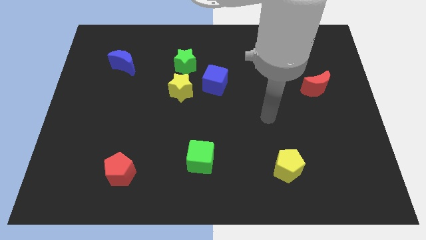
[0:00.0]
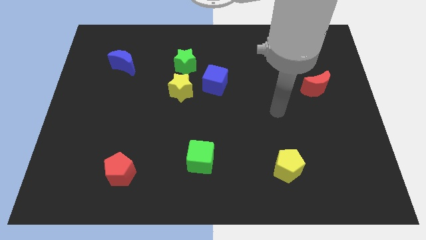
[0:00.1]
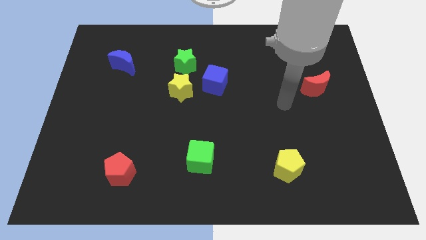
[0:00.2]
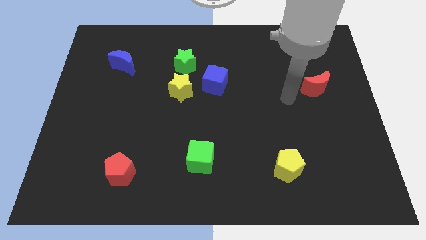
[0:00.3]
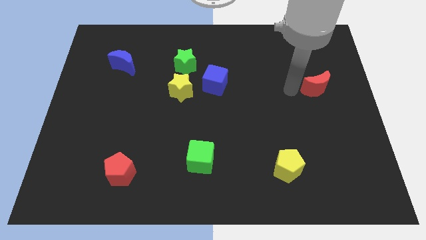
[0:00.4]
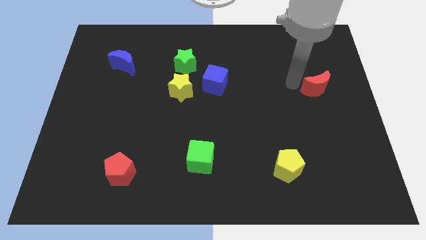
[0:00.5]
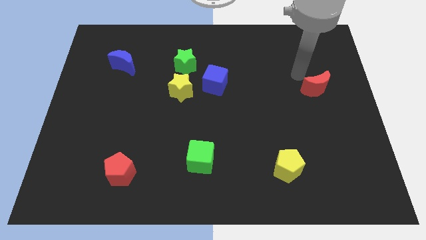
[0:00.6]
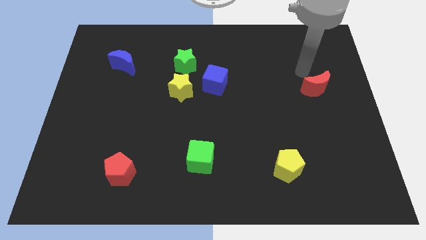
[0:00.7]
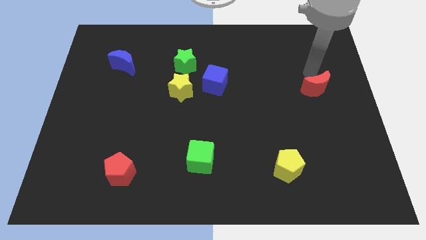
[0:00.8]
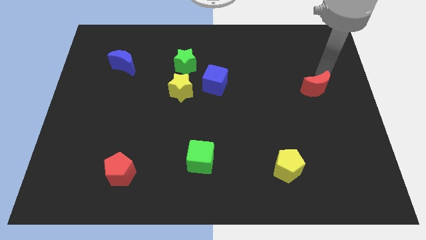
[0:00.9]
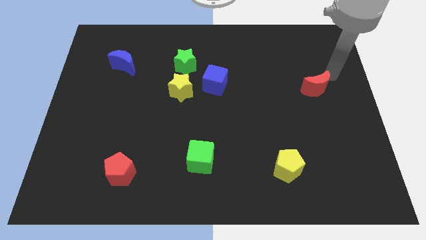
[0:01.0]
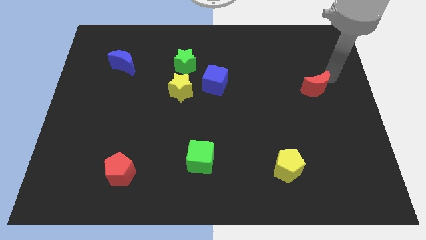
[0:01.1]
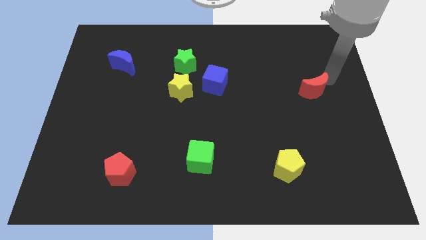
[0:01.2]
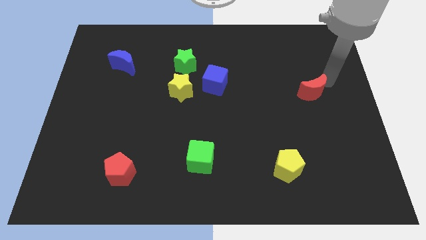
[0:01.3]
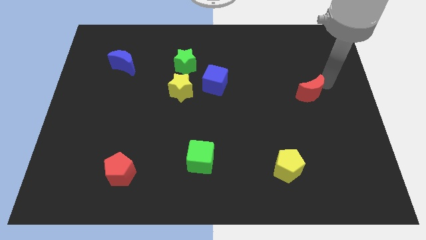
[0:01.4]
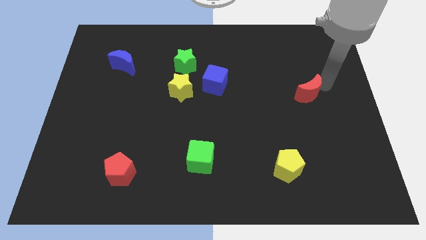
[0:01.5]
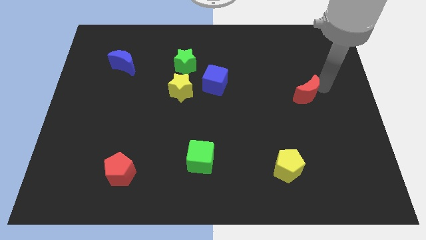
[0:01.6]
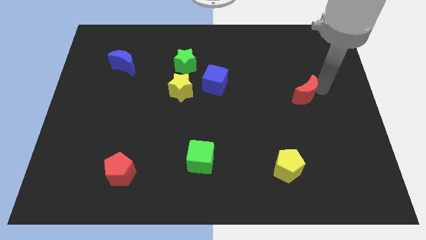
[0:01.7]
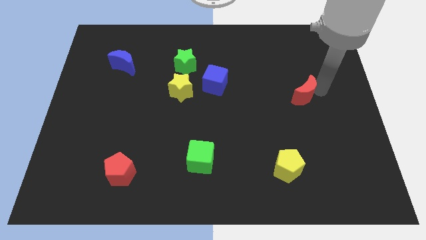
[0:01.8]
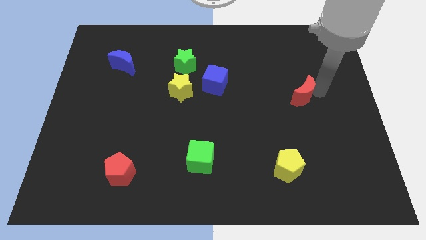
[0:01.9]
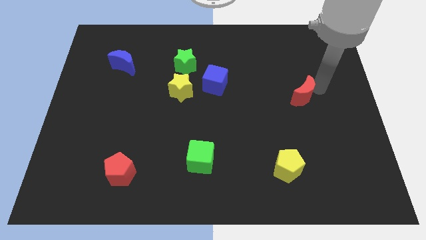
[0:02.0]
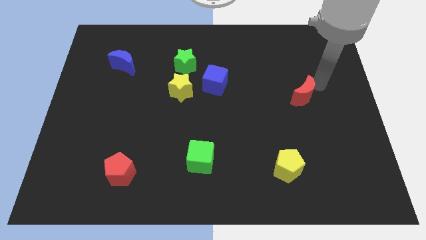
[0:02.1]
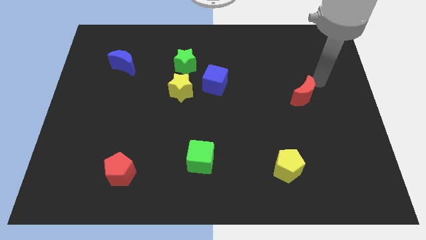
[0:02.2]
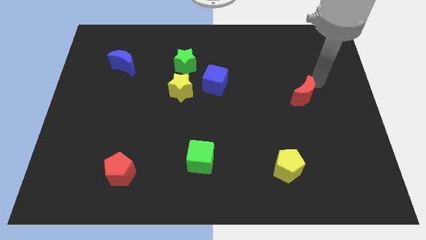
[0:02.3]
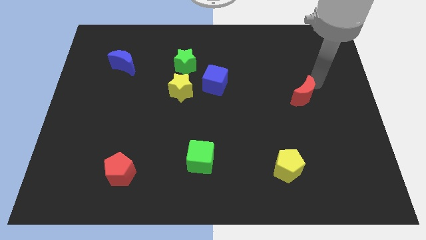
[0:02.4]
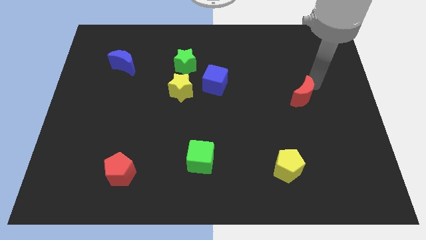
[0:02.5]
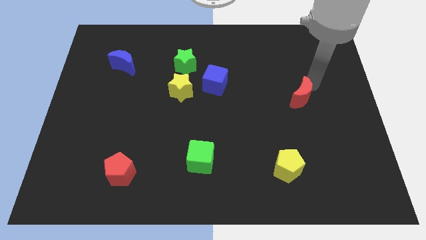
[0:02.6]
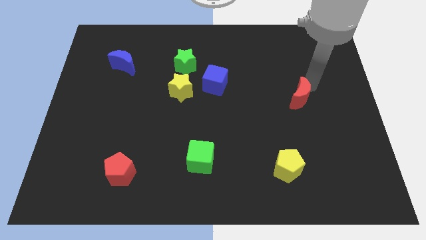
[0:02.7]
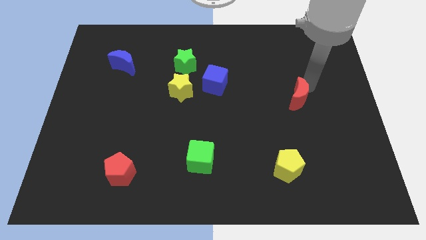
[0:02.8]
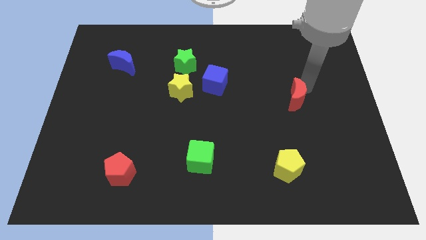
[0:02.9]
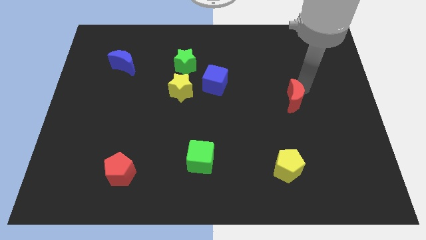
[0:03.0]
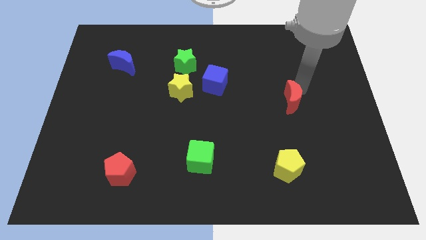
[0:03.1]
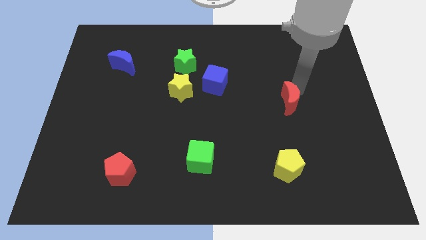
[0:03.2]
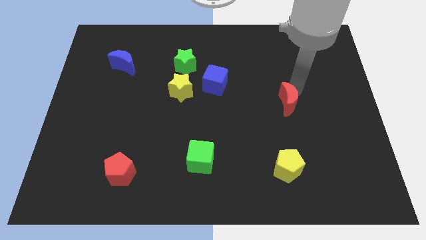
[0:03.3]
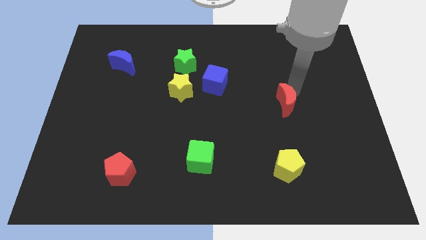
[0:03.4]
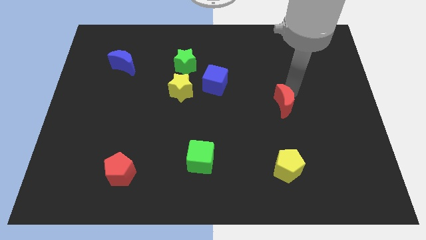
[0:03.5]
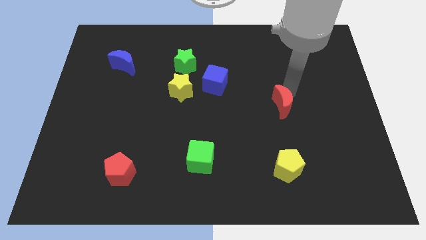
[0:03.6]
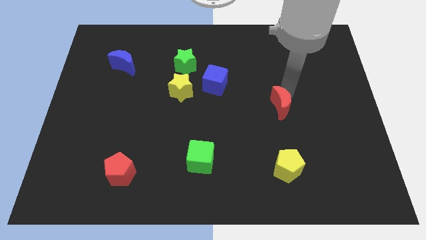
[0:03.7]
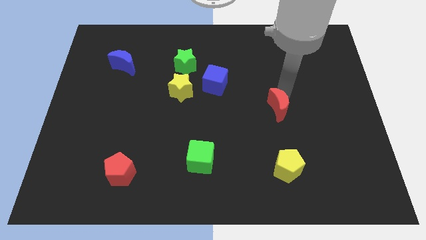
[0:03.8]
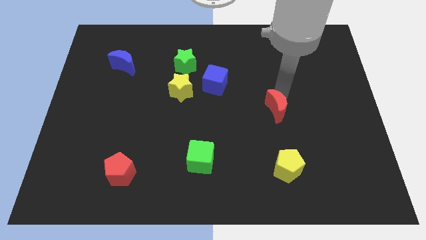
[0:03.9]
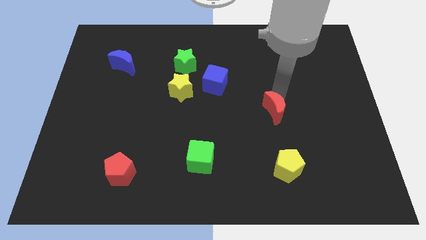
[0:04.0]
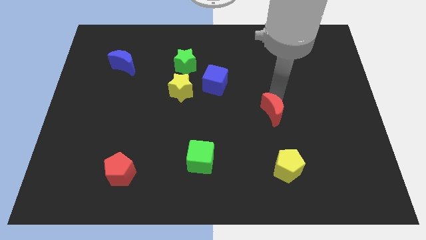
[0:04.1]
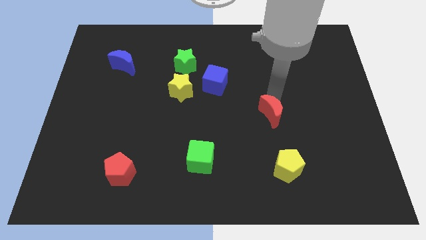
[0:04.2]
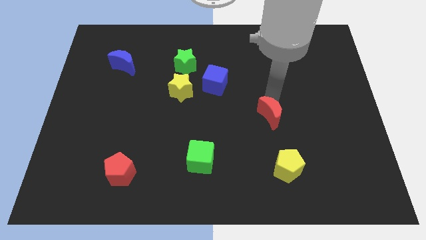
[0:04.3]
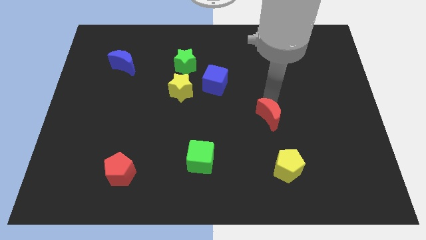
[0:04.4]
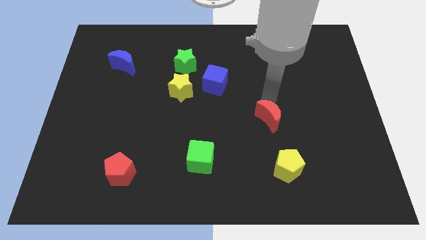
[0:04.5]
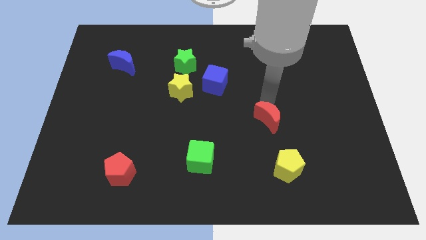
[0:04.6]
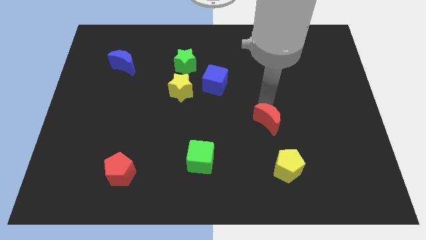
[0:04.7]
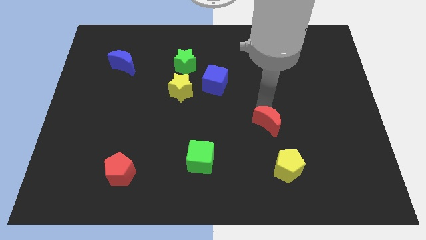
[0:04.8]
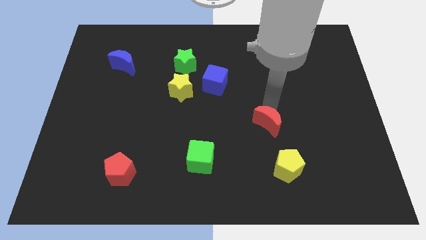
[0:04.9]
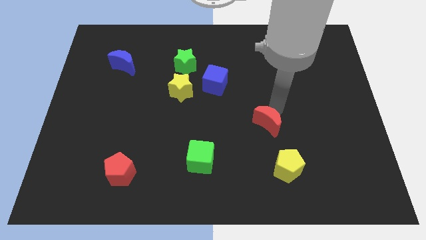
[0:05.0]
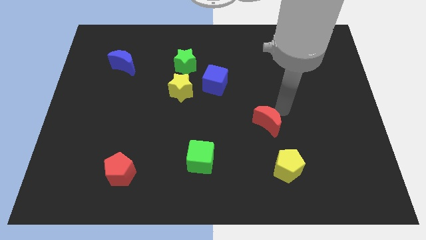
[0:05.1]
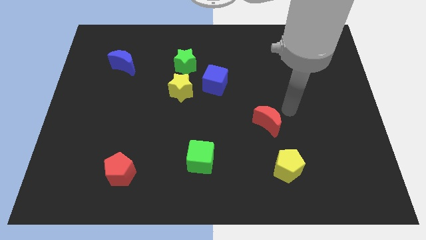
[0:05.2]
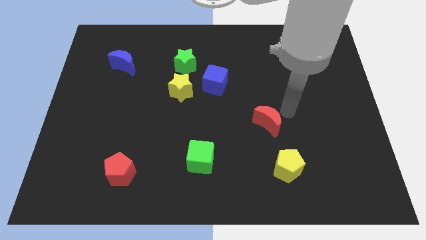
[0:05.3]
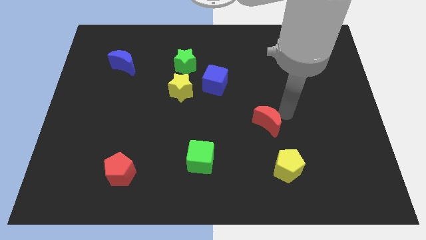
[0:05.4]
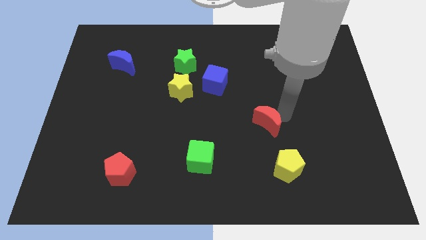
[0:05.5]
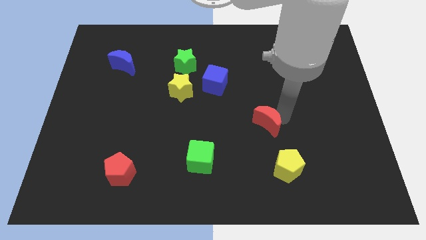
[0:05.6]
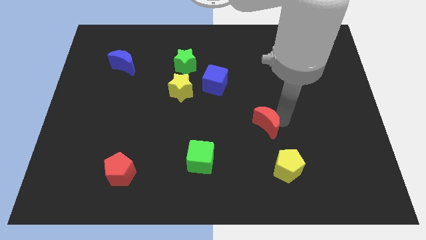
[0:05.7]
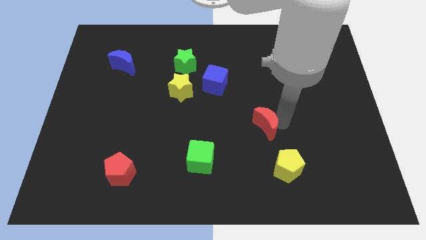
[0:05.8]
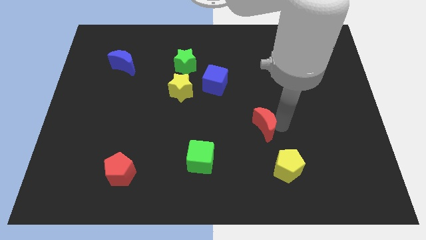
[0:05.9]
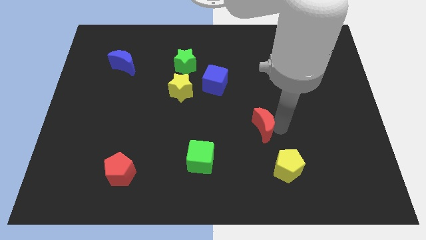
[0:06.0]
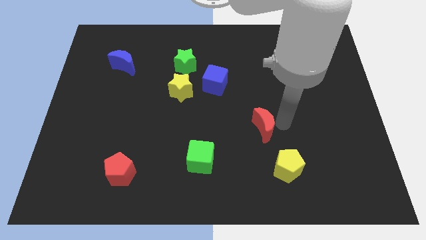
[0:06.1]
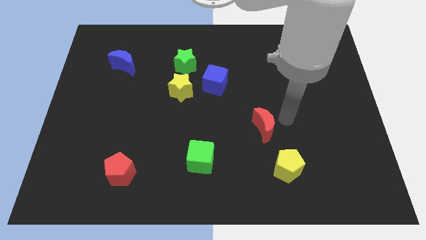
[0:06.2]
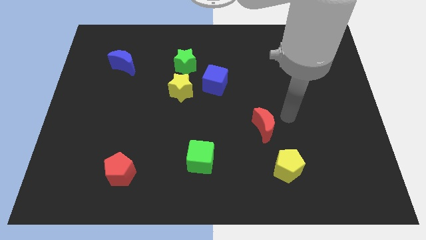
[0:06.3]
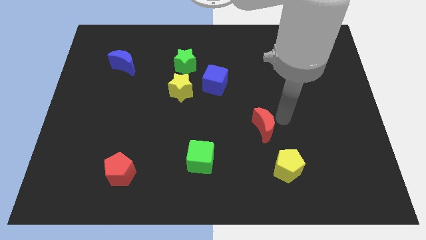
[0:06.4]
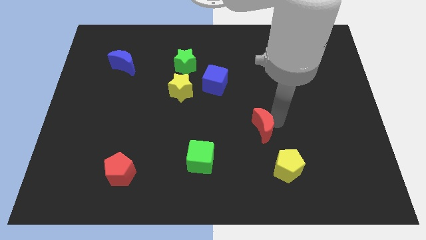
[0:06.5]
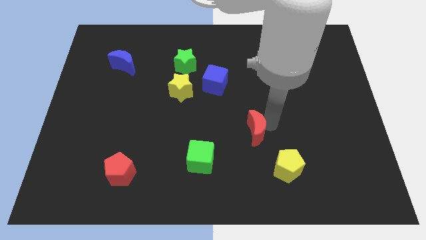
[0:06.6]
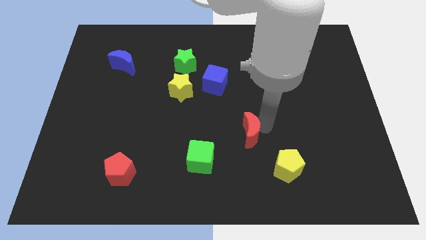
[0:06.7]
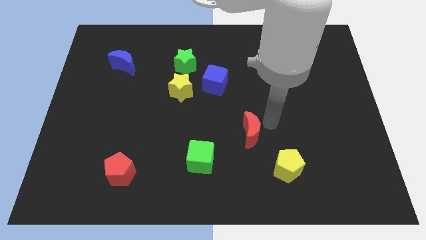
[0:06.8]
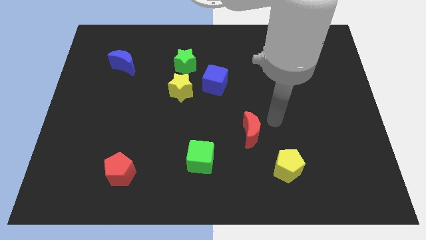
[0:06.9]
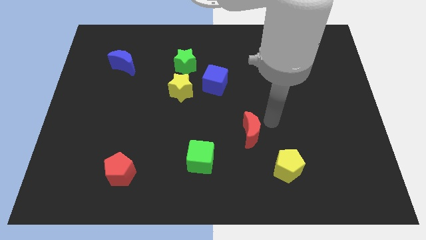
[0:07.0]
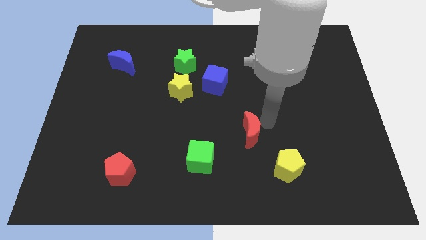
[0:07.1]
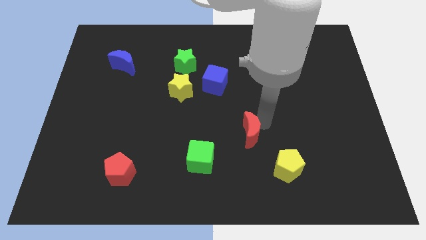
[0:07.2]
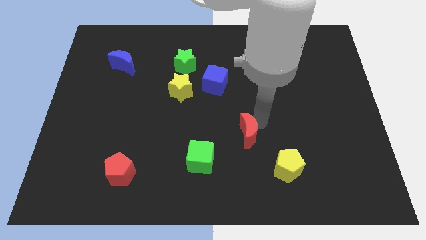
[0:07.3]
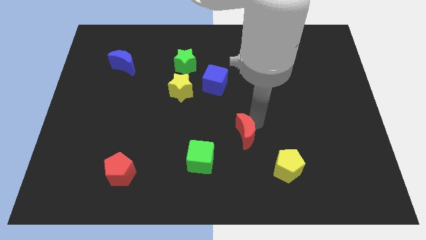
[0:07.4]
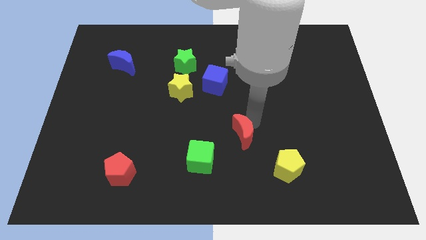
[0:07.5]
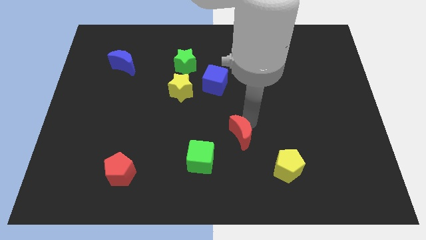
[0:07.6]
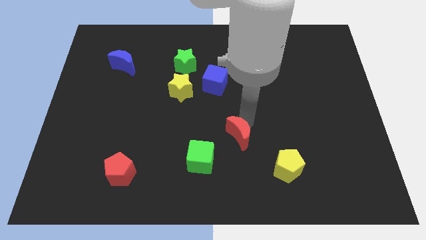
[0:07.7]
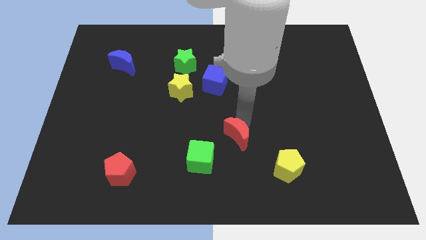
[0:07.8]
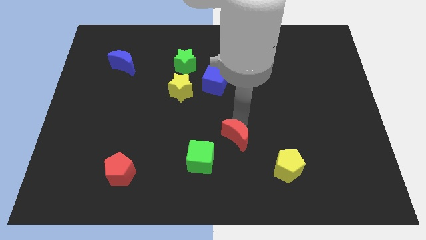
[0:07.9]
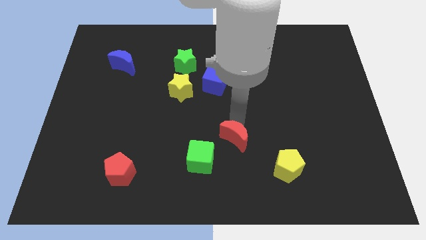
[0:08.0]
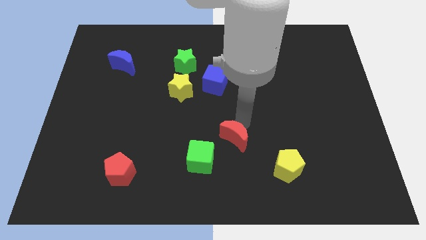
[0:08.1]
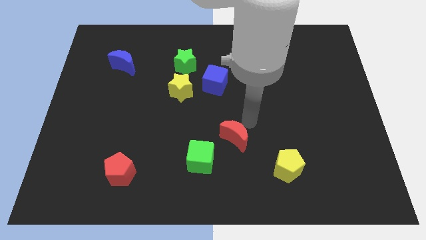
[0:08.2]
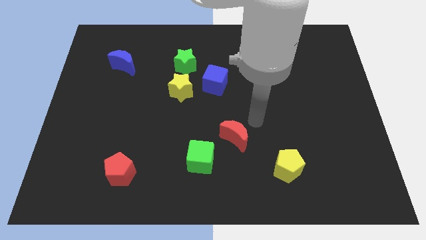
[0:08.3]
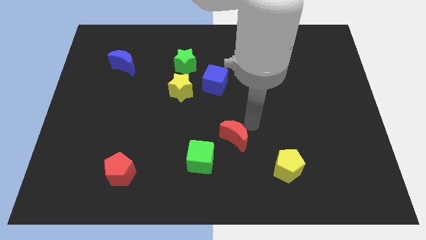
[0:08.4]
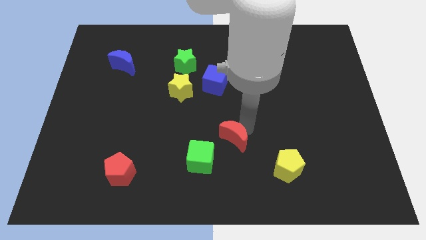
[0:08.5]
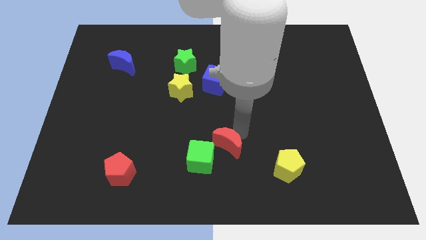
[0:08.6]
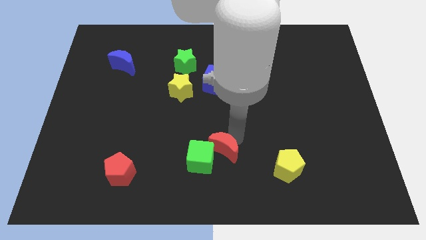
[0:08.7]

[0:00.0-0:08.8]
move the red moon next to the green cube
